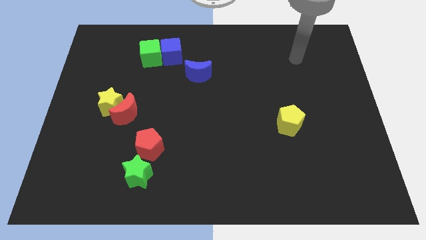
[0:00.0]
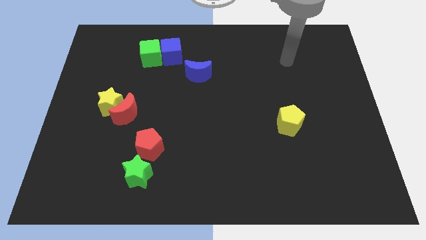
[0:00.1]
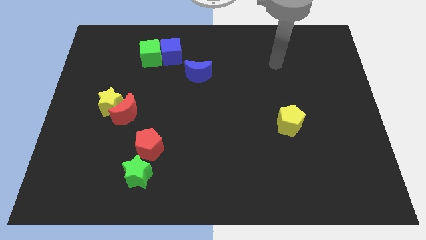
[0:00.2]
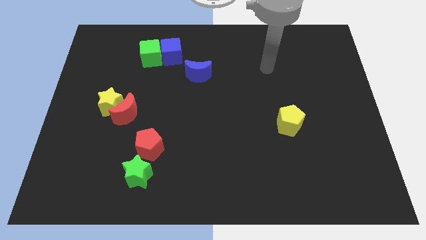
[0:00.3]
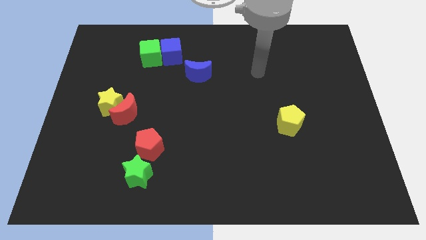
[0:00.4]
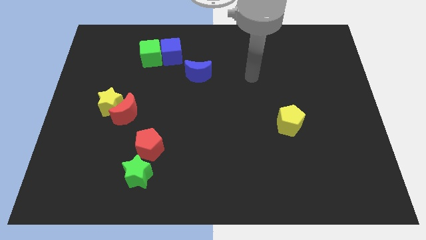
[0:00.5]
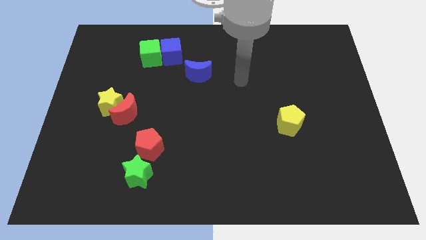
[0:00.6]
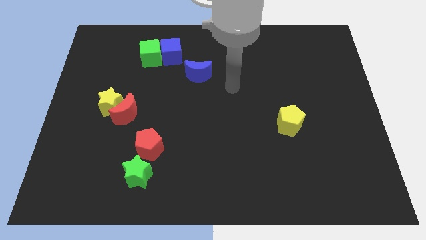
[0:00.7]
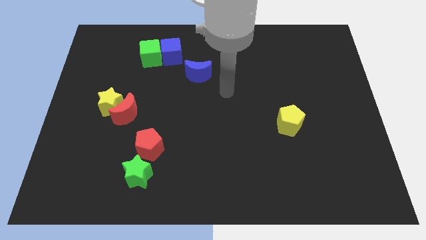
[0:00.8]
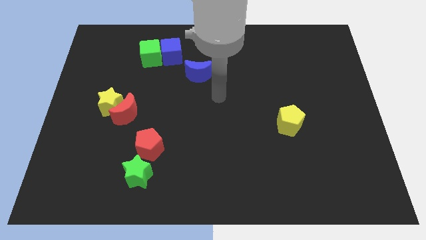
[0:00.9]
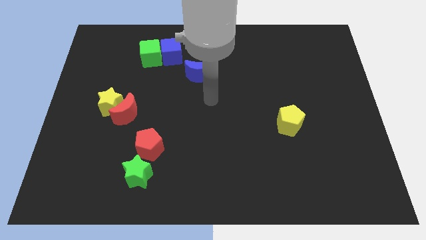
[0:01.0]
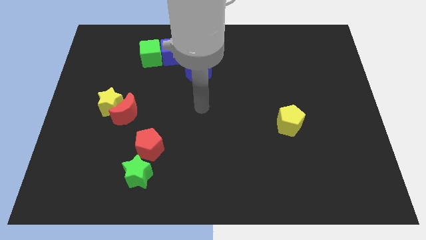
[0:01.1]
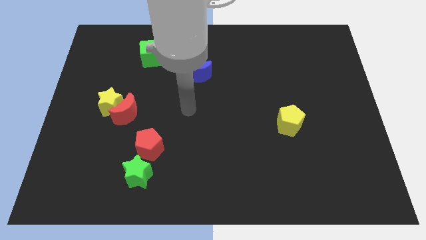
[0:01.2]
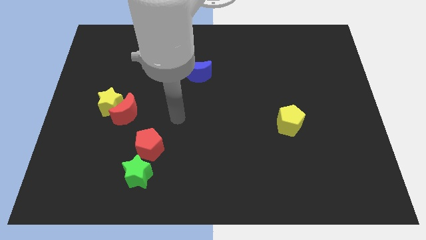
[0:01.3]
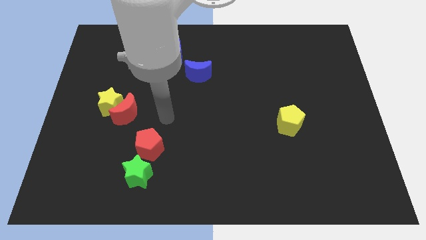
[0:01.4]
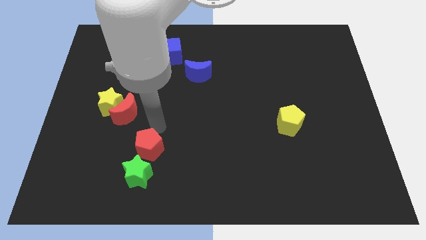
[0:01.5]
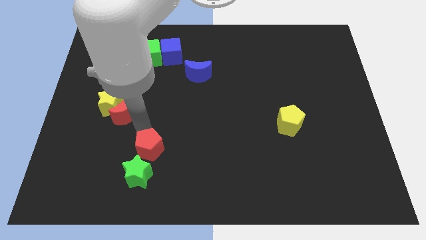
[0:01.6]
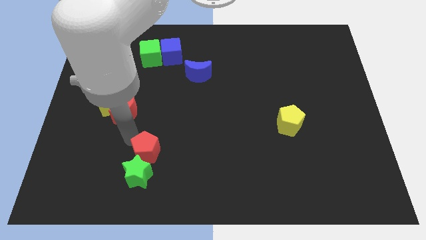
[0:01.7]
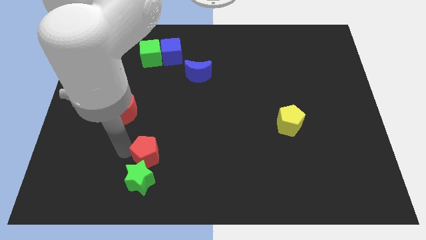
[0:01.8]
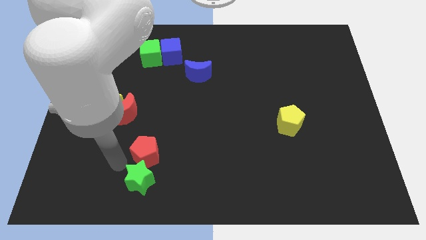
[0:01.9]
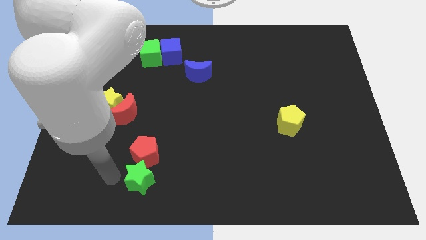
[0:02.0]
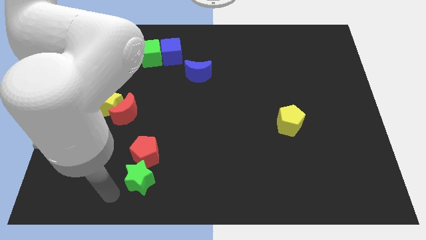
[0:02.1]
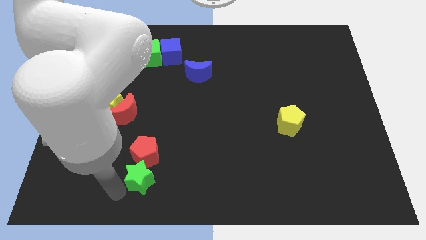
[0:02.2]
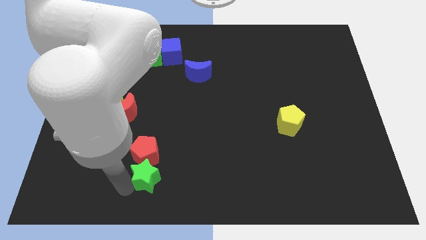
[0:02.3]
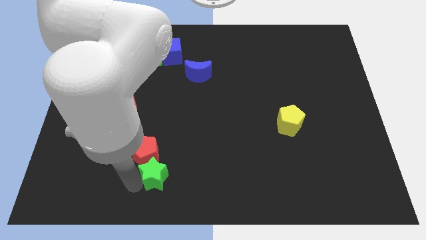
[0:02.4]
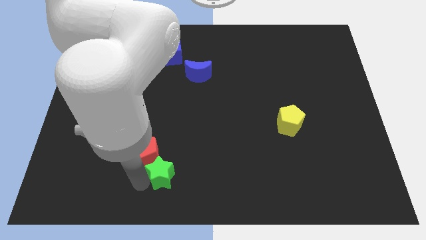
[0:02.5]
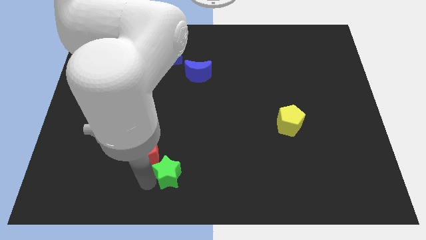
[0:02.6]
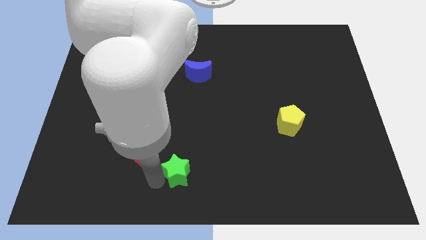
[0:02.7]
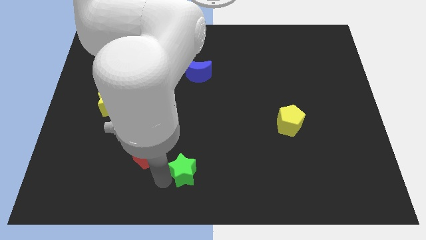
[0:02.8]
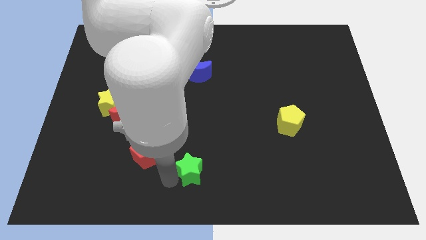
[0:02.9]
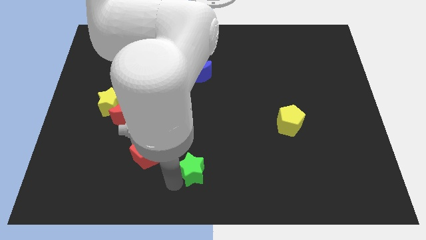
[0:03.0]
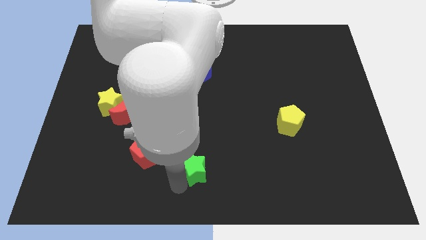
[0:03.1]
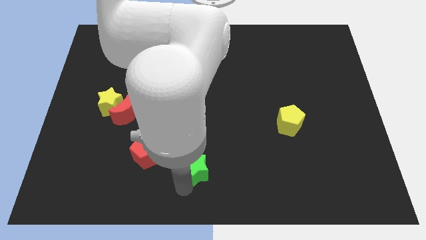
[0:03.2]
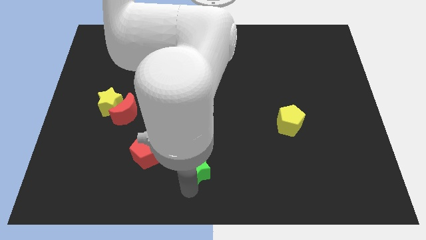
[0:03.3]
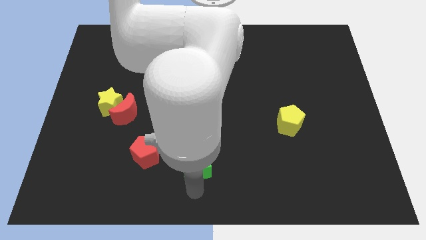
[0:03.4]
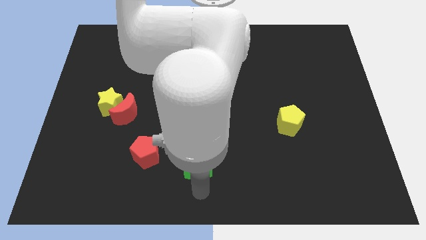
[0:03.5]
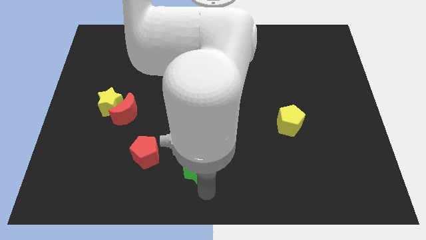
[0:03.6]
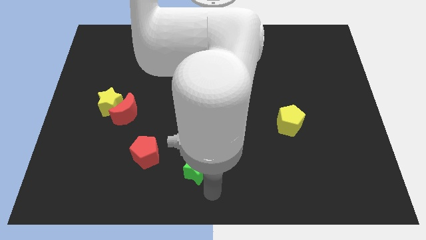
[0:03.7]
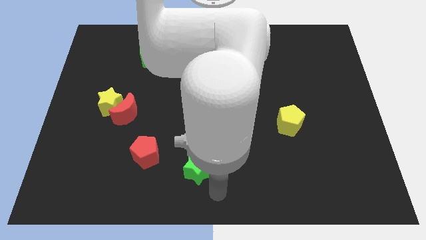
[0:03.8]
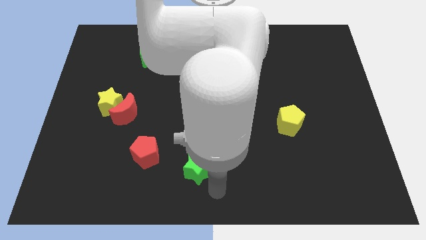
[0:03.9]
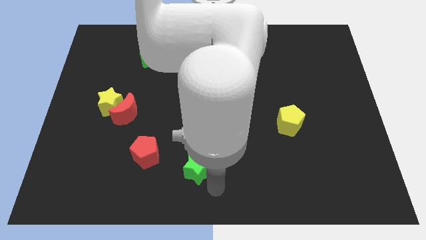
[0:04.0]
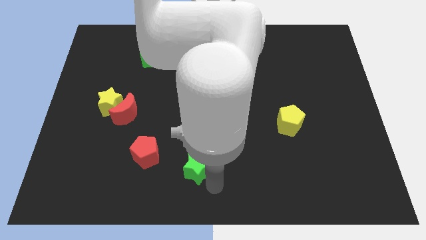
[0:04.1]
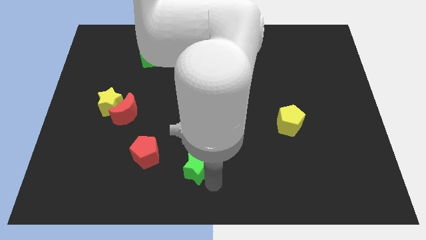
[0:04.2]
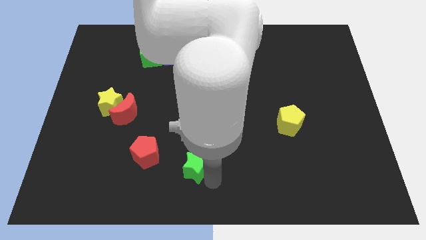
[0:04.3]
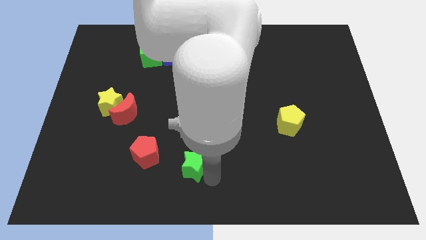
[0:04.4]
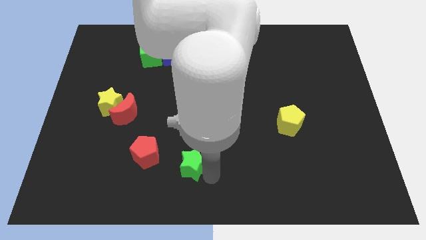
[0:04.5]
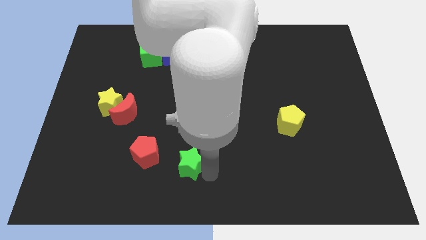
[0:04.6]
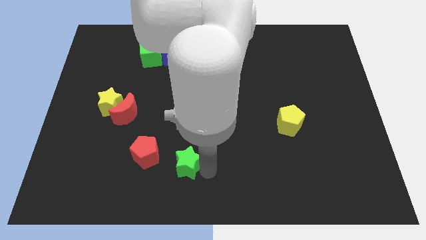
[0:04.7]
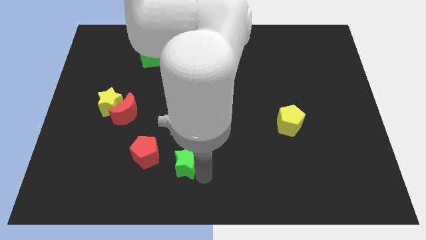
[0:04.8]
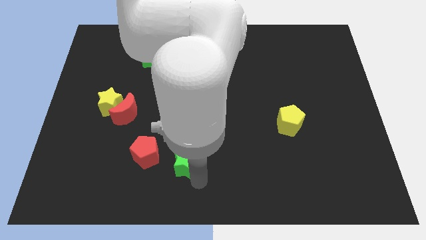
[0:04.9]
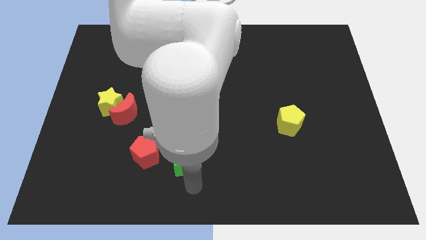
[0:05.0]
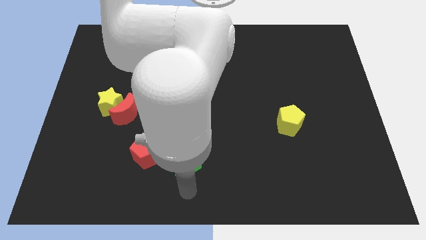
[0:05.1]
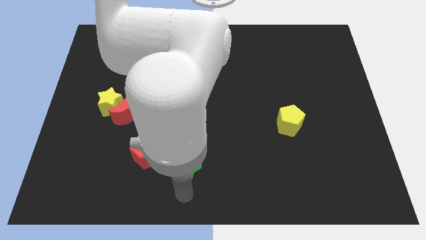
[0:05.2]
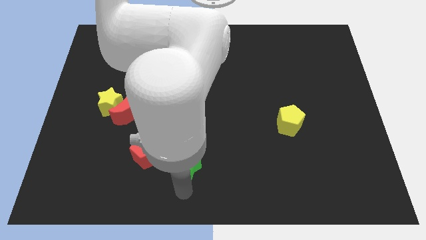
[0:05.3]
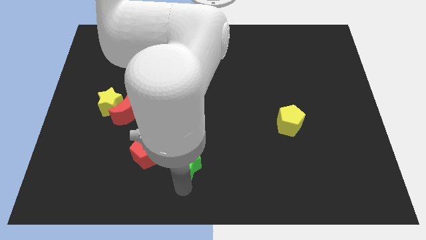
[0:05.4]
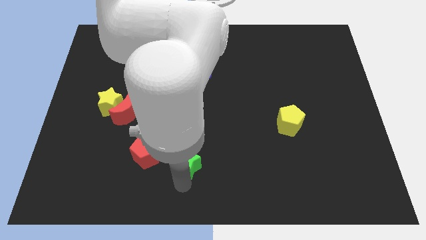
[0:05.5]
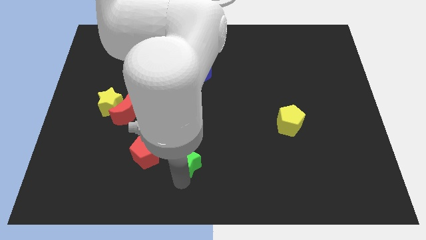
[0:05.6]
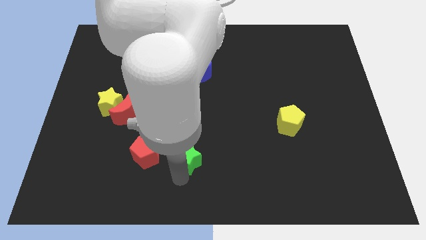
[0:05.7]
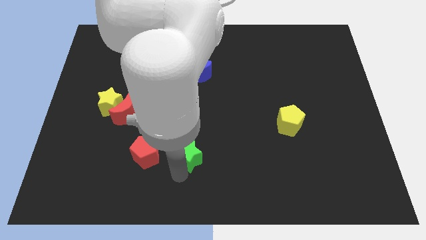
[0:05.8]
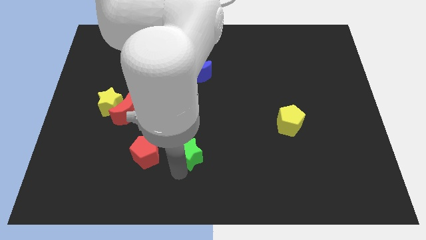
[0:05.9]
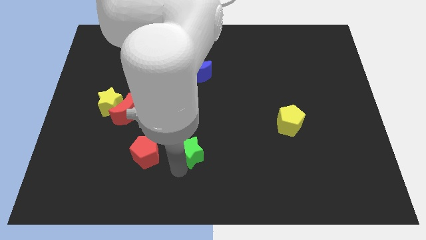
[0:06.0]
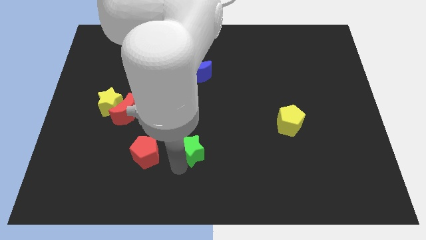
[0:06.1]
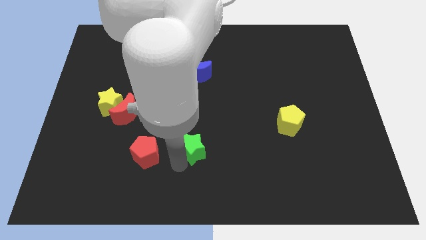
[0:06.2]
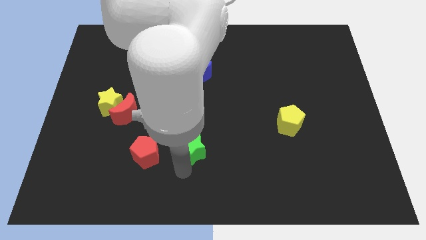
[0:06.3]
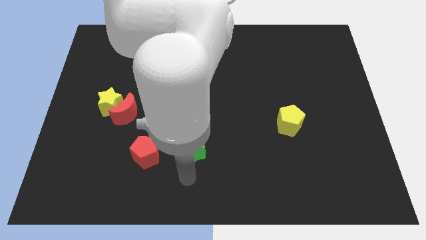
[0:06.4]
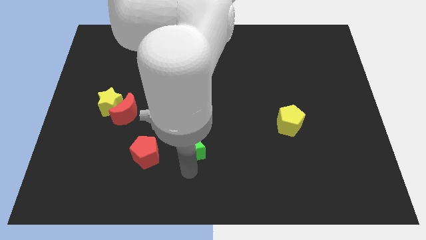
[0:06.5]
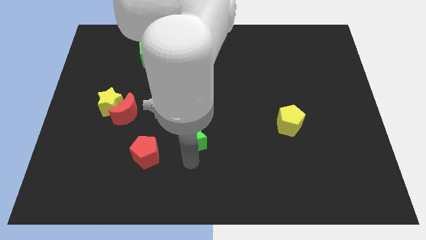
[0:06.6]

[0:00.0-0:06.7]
move the green star to the middle of the board

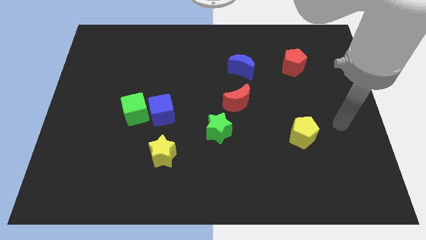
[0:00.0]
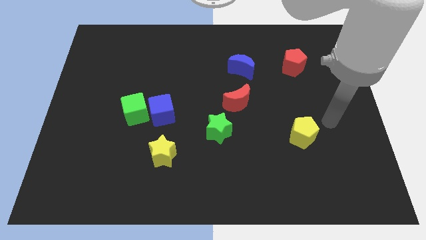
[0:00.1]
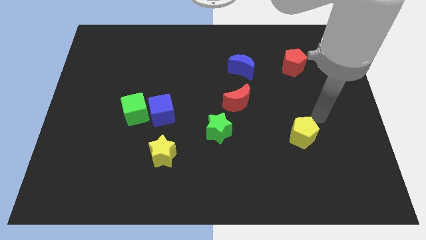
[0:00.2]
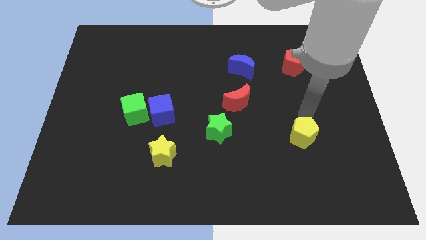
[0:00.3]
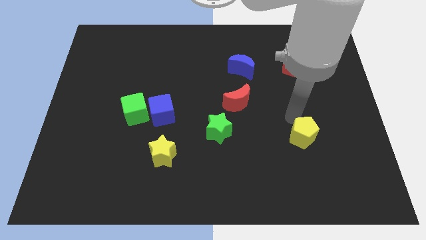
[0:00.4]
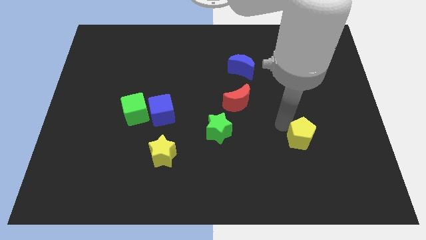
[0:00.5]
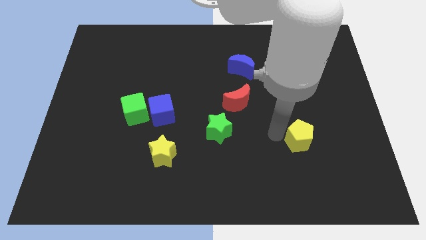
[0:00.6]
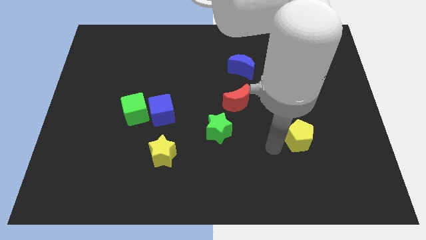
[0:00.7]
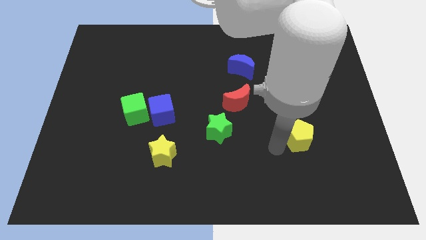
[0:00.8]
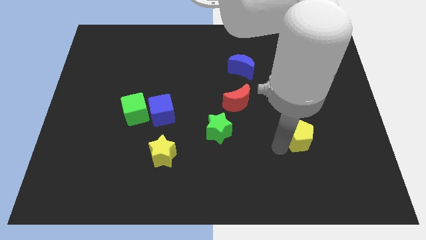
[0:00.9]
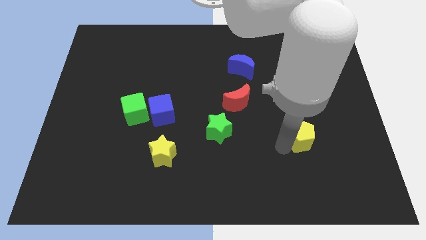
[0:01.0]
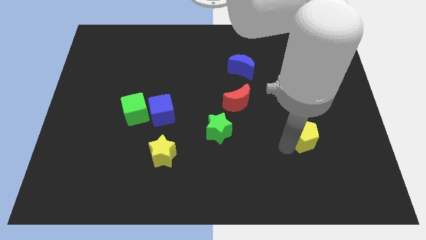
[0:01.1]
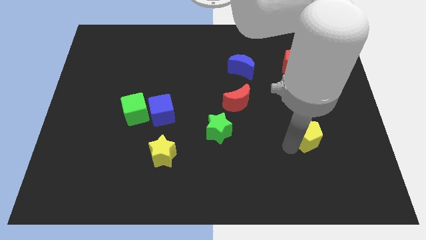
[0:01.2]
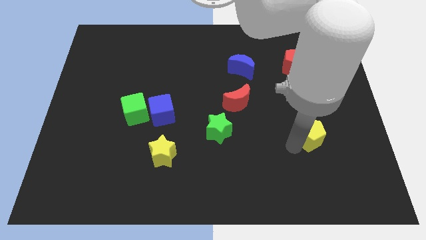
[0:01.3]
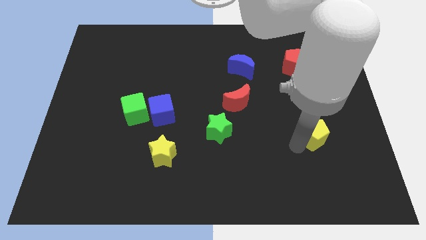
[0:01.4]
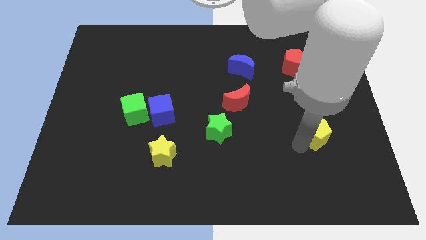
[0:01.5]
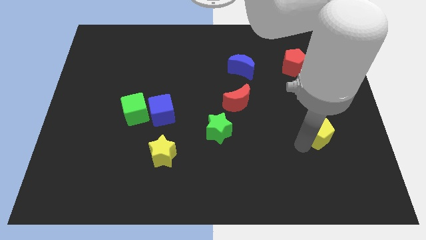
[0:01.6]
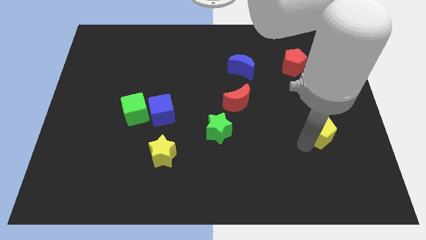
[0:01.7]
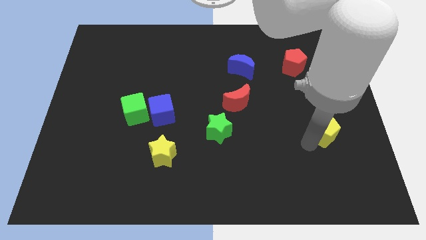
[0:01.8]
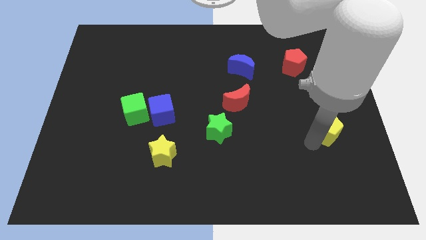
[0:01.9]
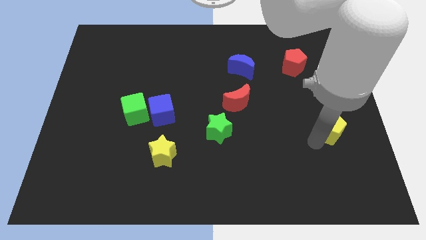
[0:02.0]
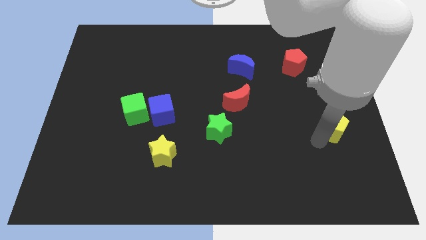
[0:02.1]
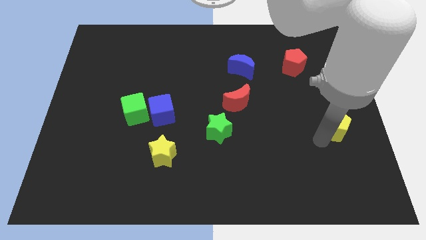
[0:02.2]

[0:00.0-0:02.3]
move the yellow pentagon to the right side
